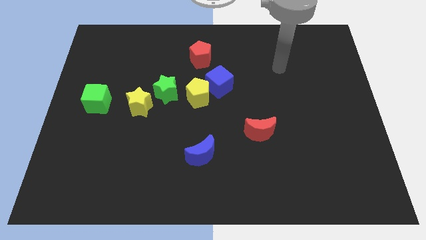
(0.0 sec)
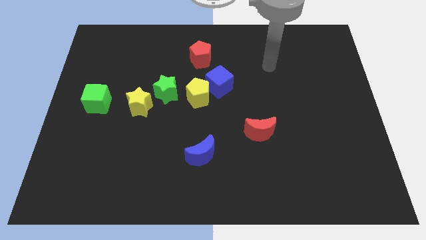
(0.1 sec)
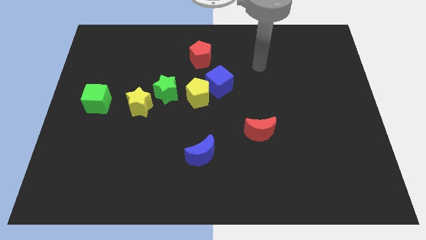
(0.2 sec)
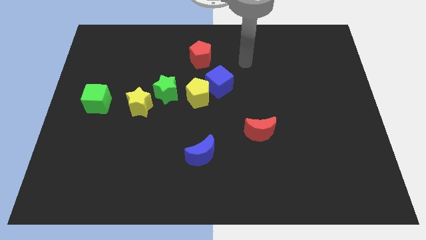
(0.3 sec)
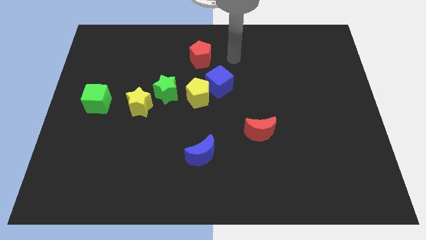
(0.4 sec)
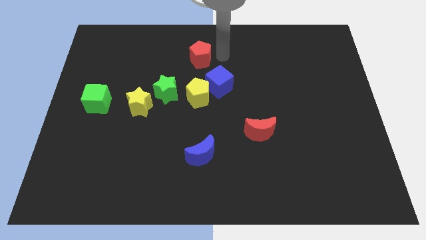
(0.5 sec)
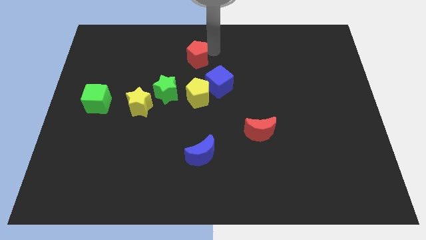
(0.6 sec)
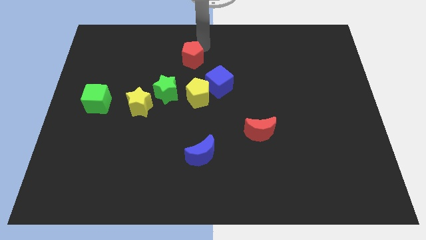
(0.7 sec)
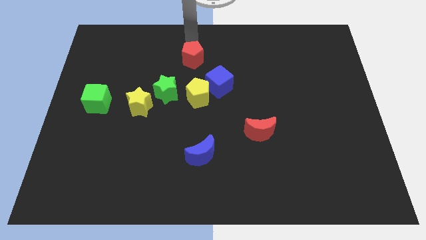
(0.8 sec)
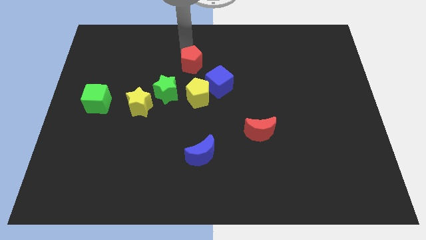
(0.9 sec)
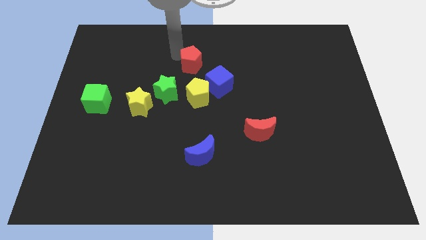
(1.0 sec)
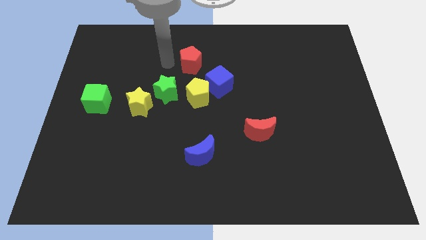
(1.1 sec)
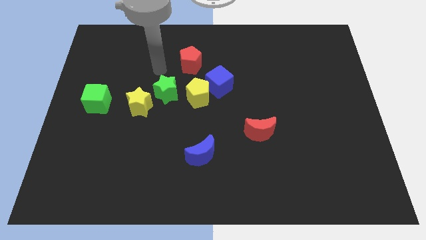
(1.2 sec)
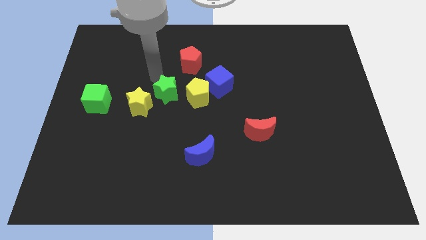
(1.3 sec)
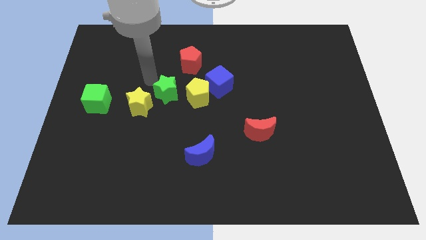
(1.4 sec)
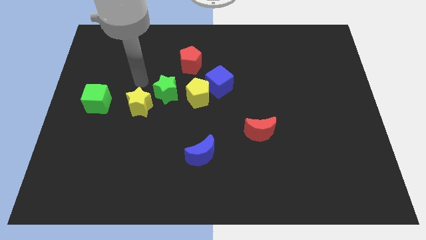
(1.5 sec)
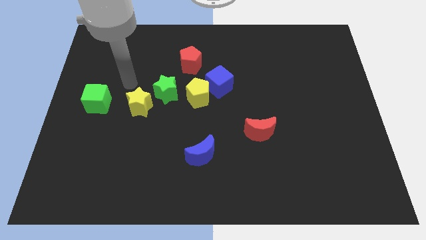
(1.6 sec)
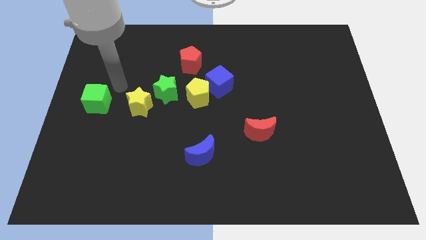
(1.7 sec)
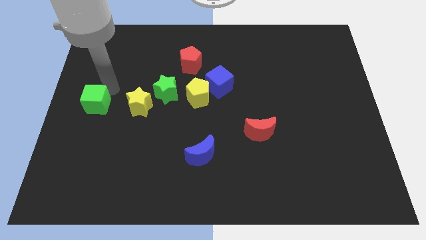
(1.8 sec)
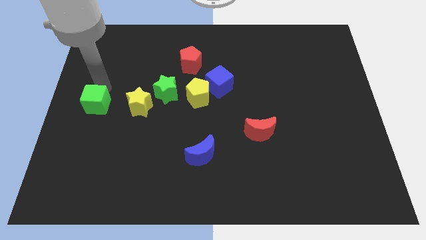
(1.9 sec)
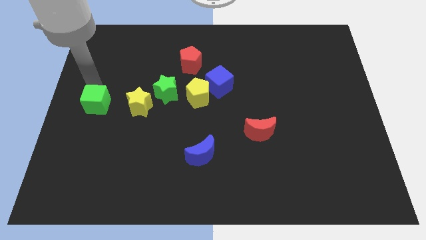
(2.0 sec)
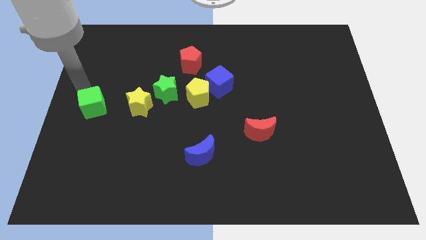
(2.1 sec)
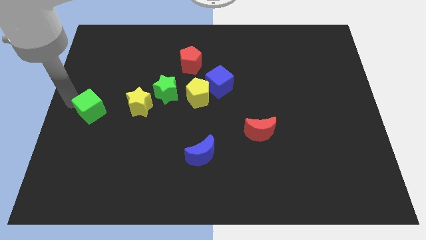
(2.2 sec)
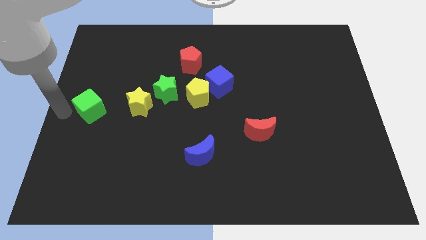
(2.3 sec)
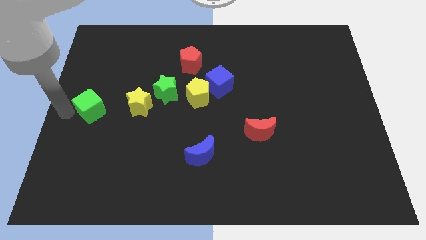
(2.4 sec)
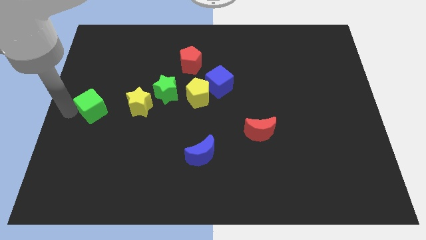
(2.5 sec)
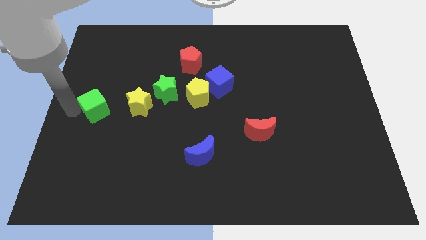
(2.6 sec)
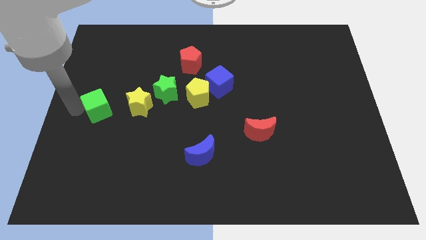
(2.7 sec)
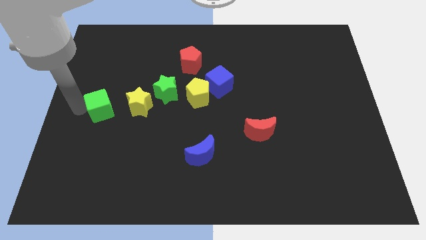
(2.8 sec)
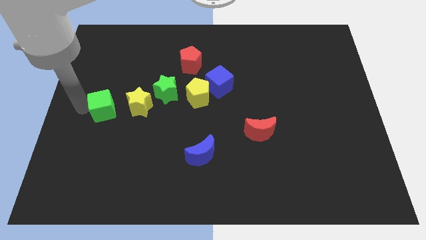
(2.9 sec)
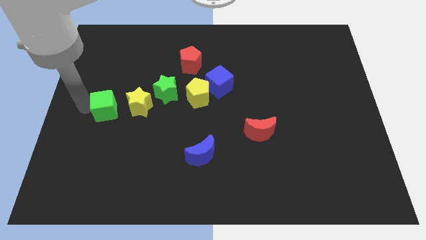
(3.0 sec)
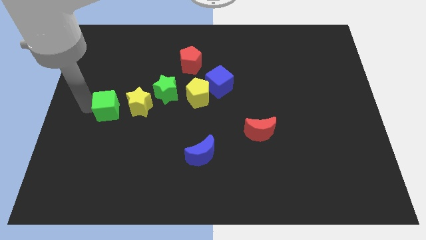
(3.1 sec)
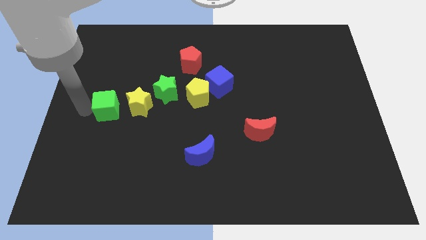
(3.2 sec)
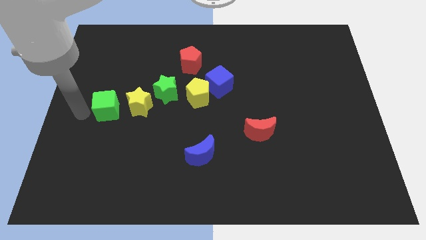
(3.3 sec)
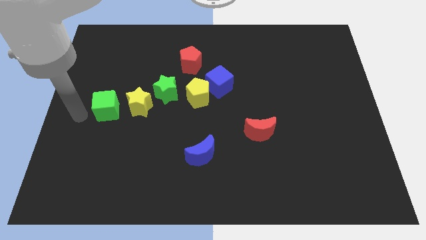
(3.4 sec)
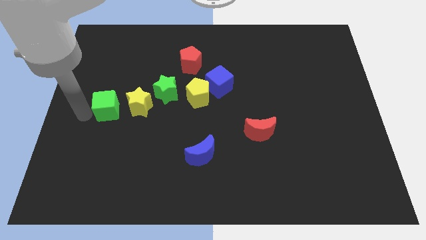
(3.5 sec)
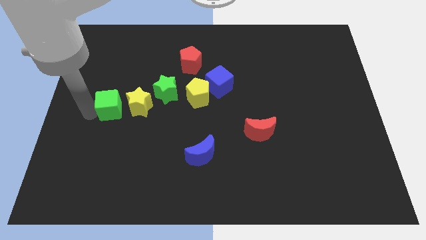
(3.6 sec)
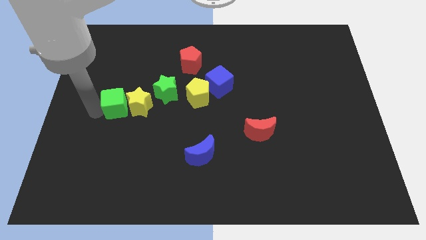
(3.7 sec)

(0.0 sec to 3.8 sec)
move the green cube close to the yellow star

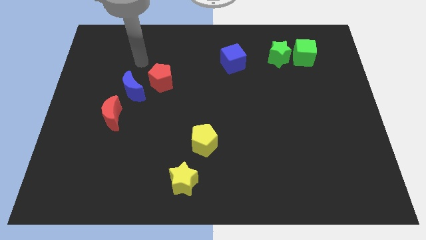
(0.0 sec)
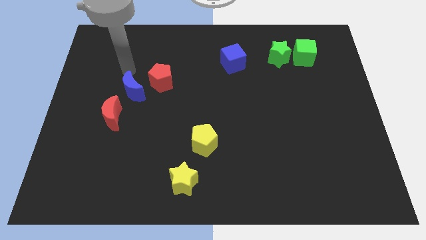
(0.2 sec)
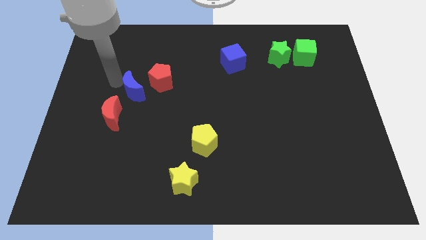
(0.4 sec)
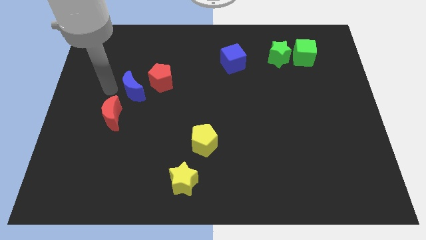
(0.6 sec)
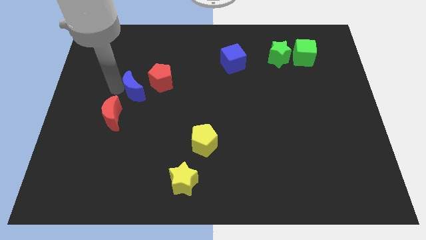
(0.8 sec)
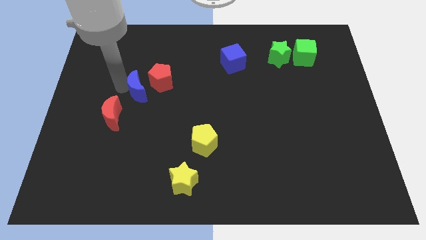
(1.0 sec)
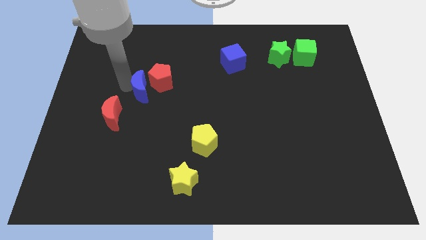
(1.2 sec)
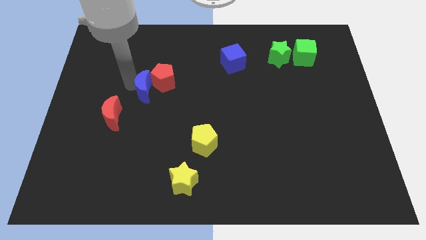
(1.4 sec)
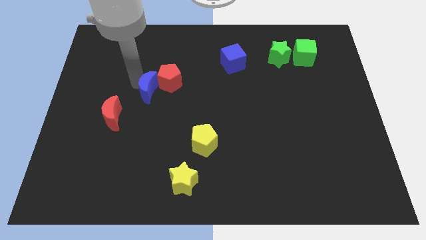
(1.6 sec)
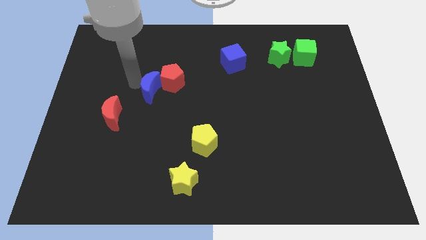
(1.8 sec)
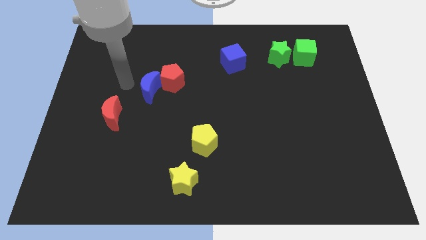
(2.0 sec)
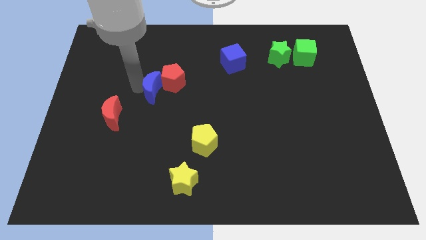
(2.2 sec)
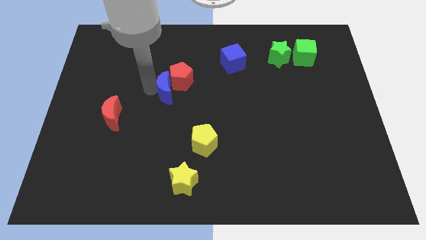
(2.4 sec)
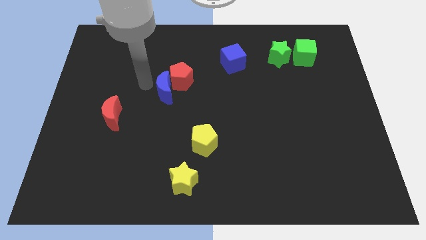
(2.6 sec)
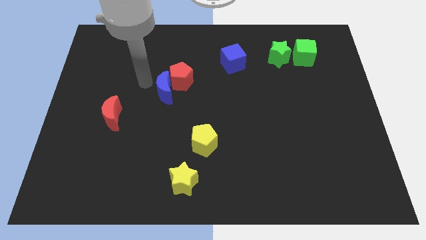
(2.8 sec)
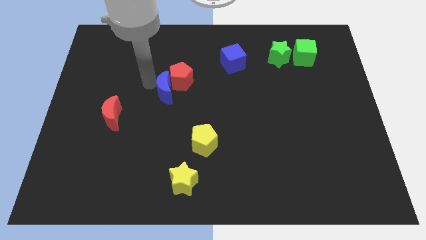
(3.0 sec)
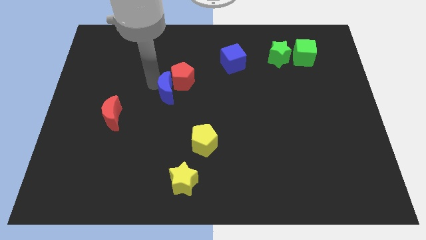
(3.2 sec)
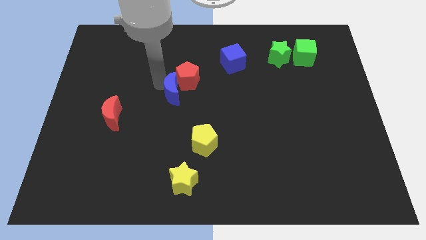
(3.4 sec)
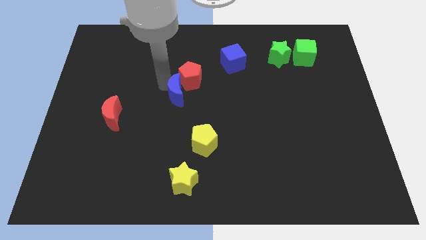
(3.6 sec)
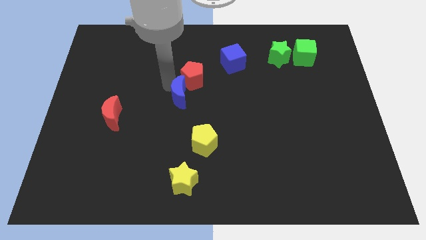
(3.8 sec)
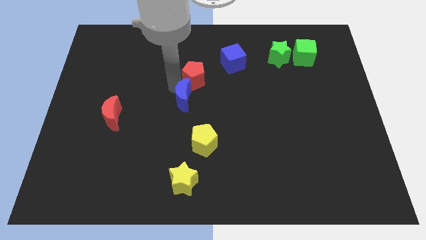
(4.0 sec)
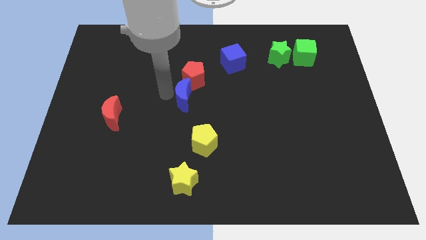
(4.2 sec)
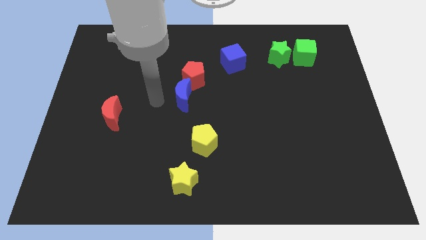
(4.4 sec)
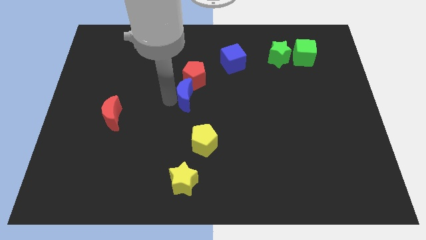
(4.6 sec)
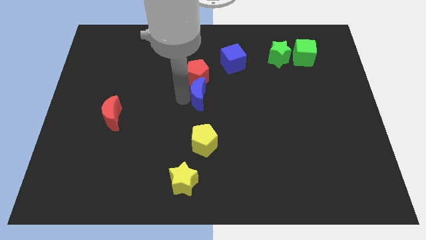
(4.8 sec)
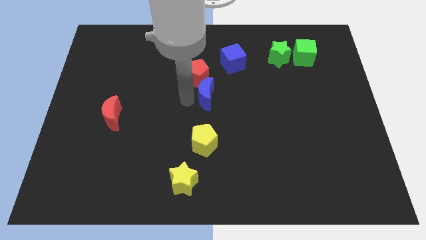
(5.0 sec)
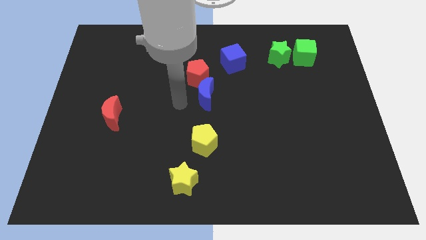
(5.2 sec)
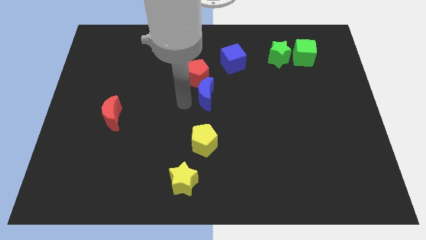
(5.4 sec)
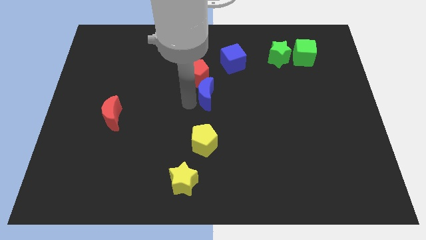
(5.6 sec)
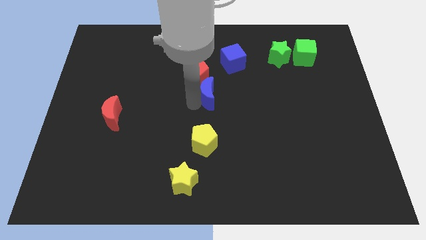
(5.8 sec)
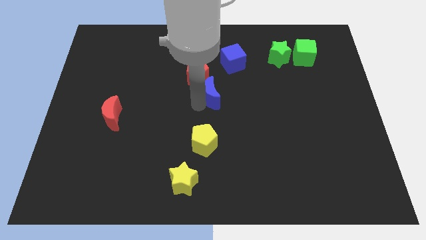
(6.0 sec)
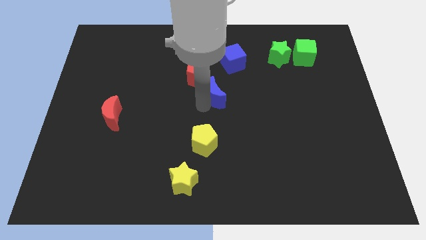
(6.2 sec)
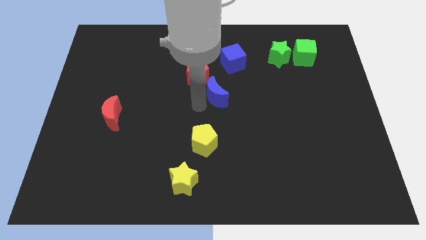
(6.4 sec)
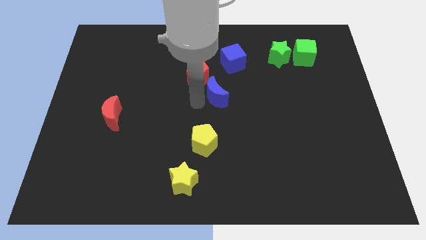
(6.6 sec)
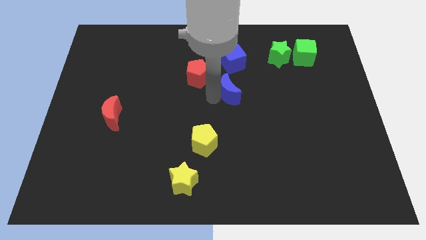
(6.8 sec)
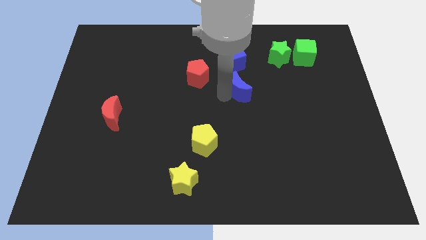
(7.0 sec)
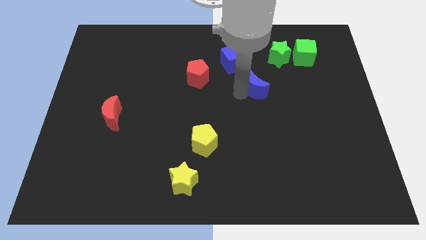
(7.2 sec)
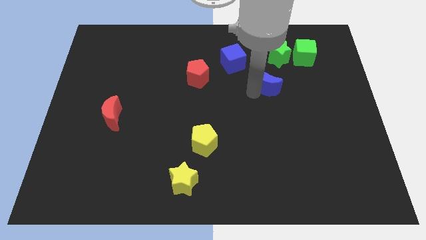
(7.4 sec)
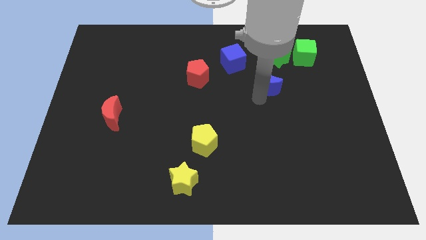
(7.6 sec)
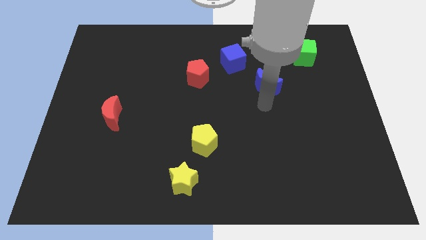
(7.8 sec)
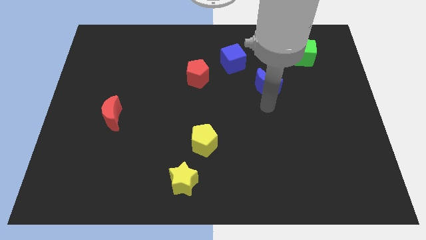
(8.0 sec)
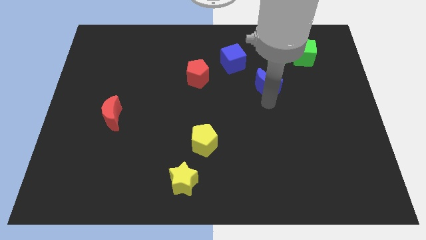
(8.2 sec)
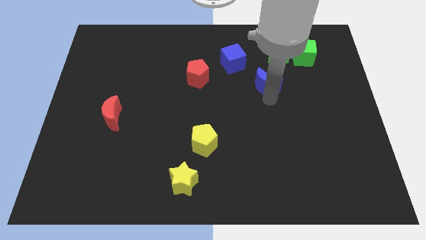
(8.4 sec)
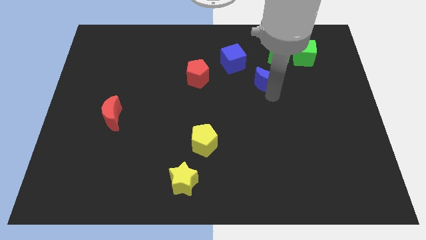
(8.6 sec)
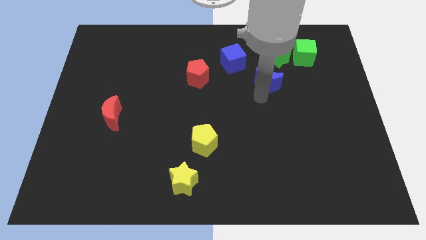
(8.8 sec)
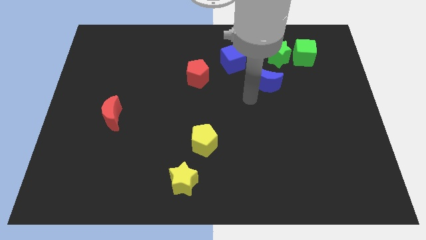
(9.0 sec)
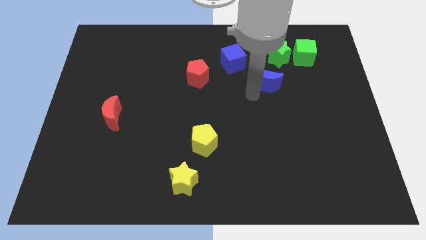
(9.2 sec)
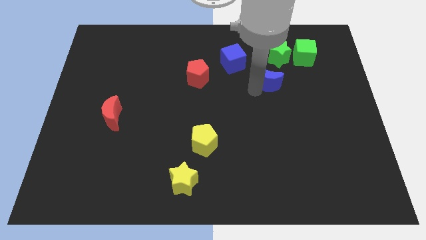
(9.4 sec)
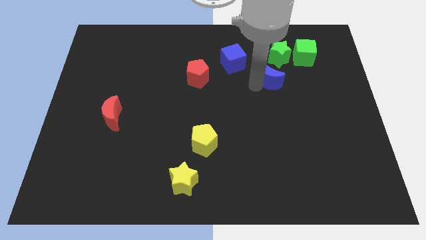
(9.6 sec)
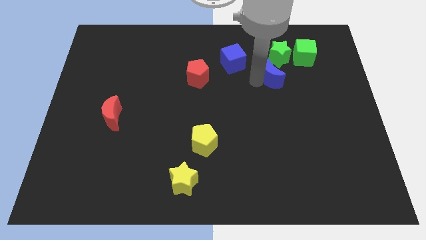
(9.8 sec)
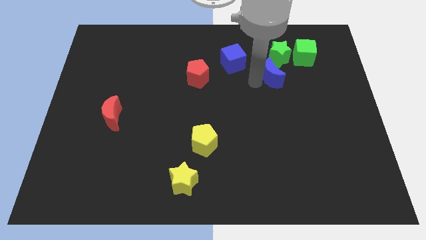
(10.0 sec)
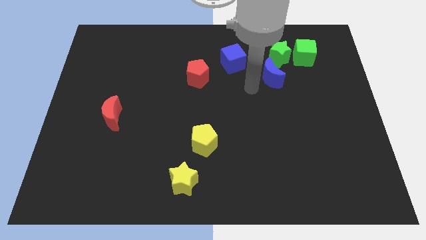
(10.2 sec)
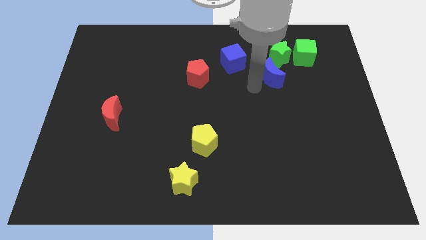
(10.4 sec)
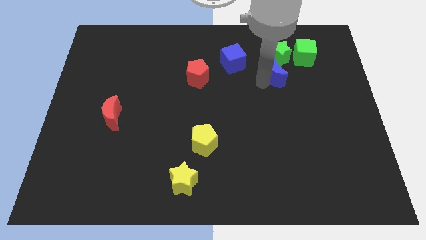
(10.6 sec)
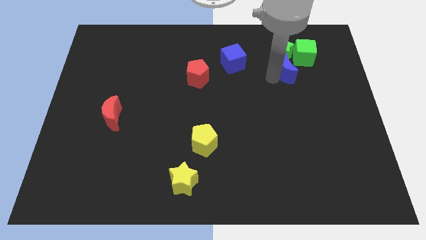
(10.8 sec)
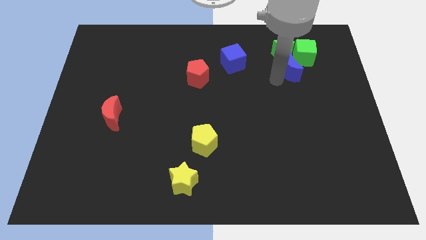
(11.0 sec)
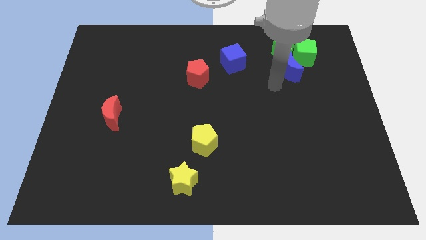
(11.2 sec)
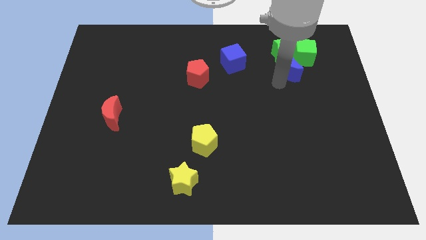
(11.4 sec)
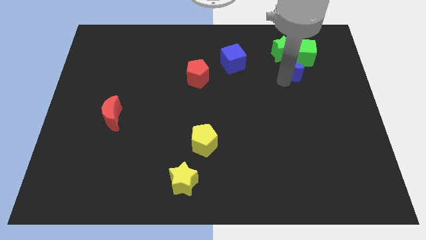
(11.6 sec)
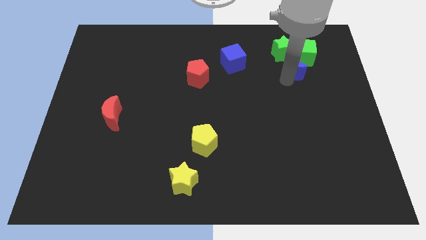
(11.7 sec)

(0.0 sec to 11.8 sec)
slide the blue moon towards the green cube
